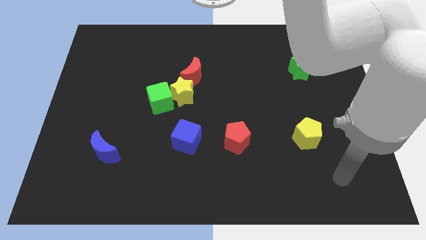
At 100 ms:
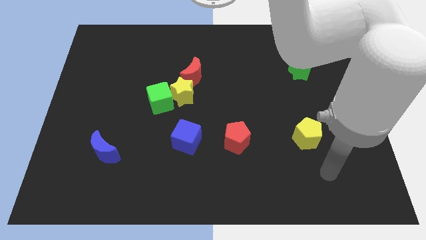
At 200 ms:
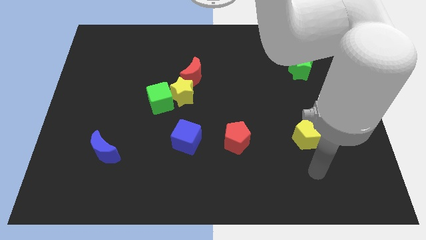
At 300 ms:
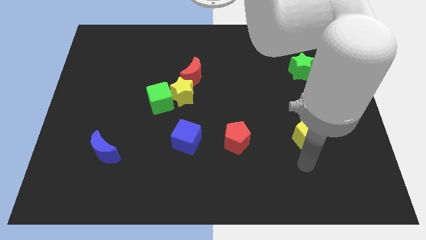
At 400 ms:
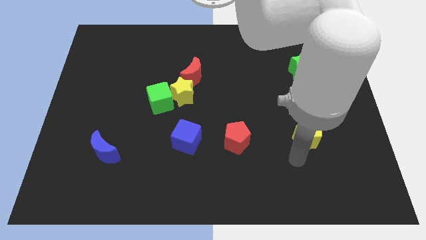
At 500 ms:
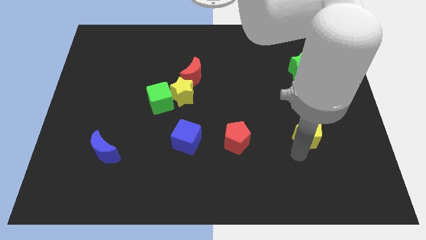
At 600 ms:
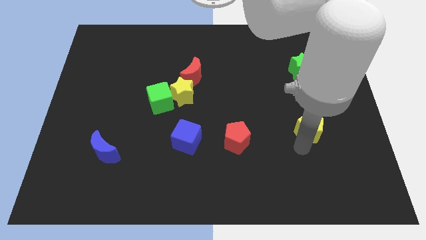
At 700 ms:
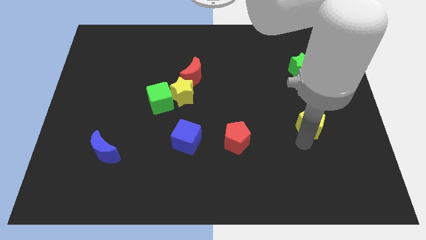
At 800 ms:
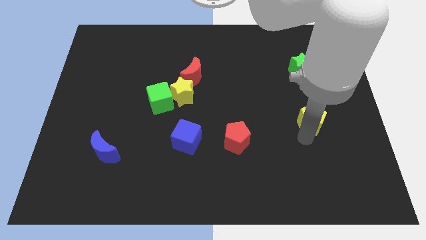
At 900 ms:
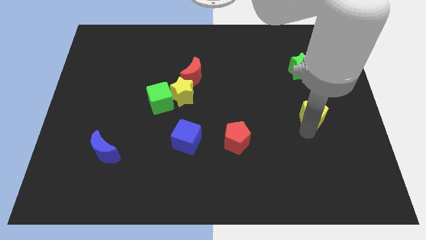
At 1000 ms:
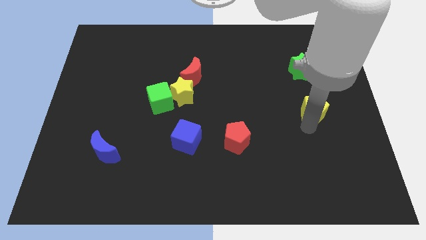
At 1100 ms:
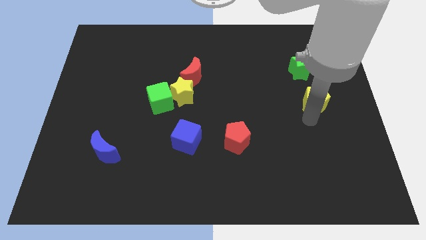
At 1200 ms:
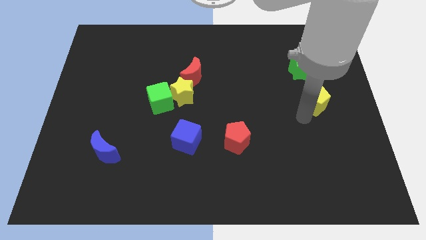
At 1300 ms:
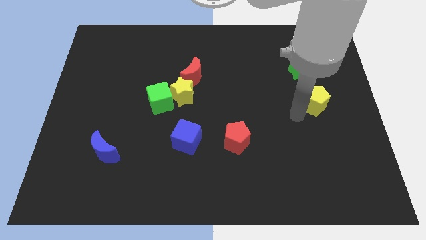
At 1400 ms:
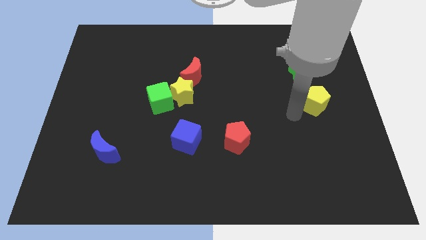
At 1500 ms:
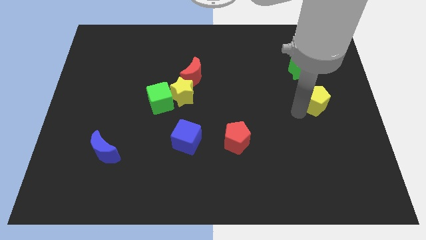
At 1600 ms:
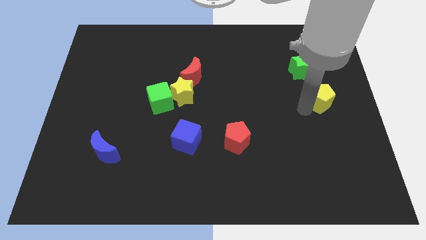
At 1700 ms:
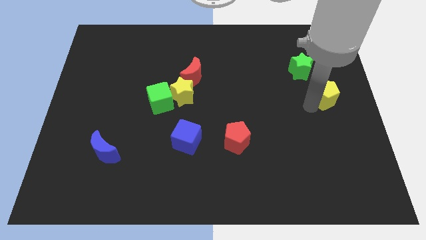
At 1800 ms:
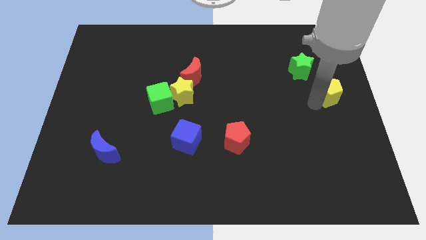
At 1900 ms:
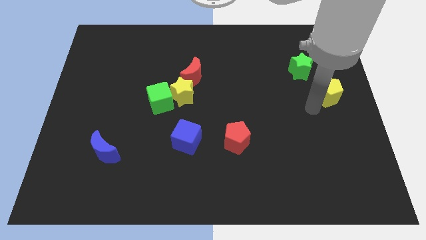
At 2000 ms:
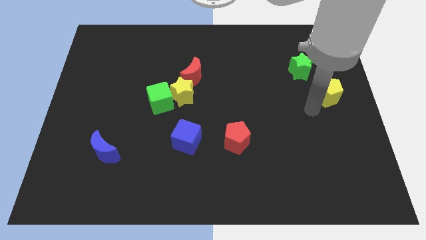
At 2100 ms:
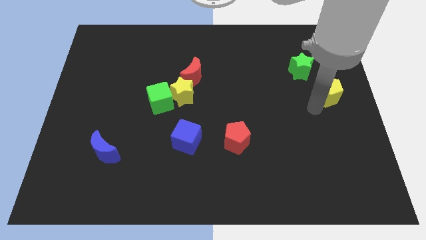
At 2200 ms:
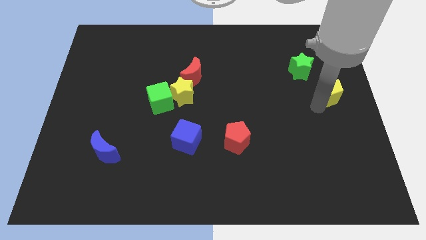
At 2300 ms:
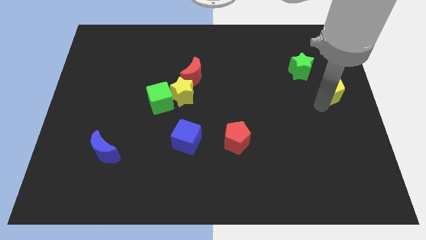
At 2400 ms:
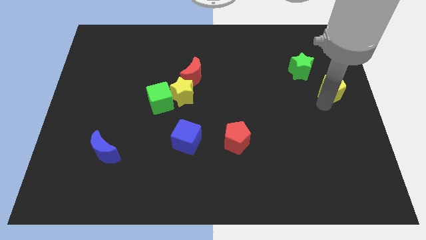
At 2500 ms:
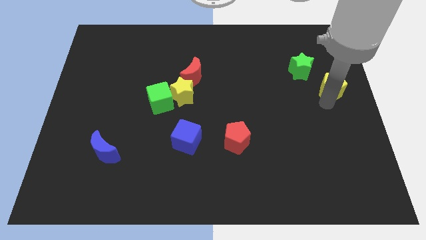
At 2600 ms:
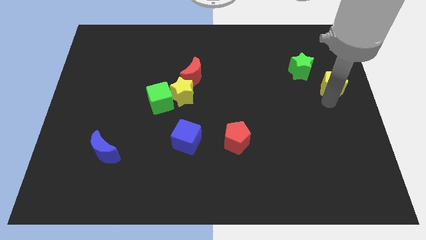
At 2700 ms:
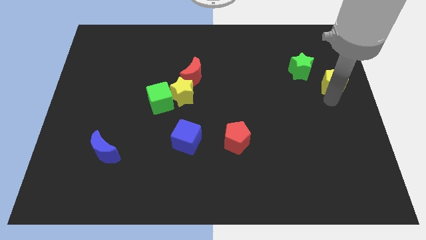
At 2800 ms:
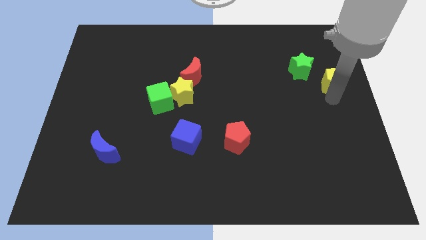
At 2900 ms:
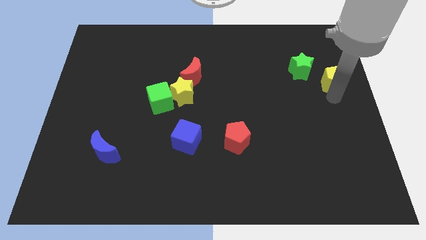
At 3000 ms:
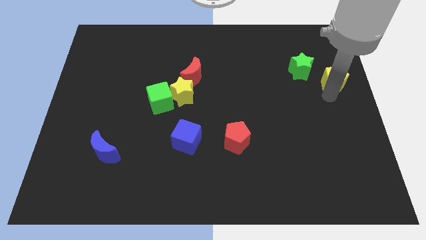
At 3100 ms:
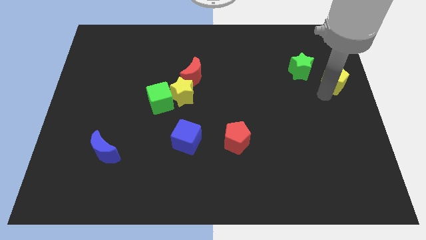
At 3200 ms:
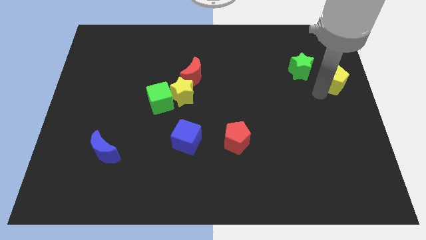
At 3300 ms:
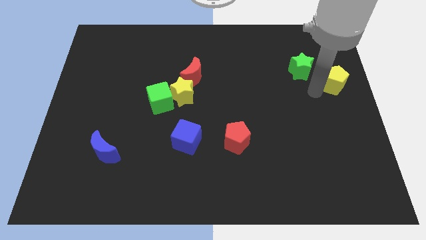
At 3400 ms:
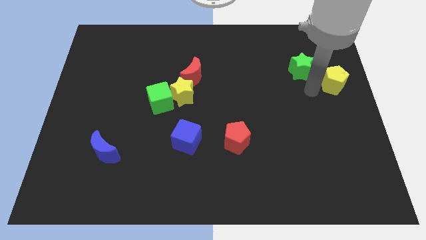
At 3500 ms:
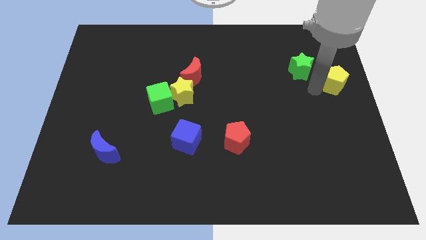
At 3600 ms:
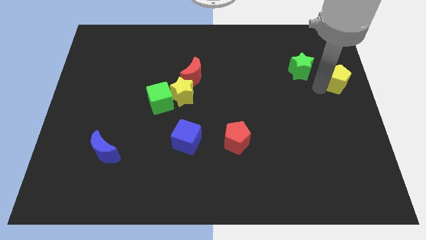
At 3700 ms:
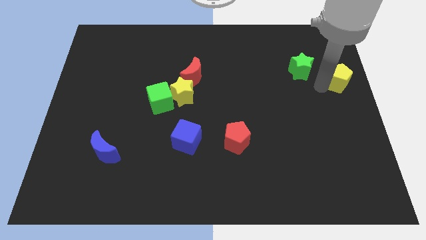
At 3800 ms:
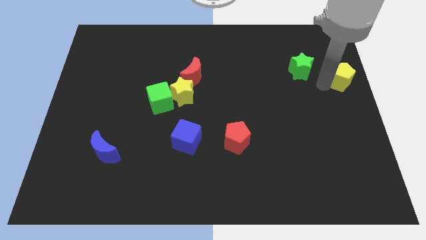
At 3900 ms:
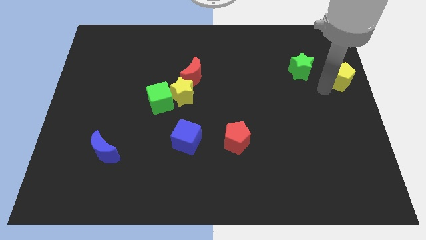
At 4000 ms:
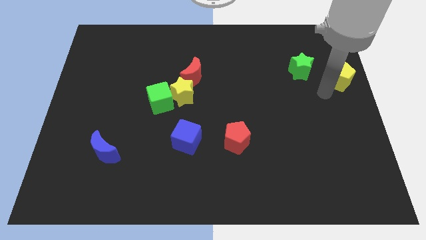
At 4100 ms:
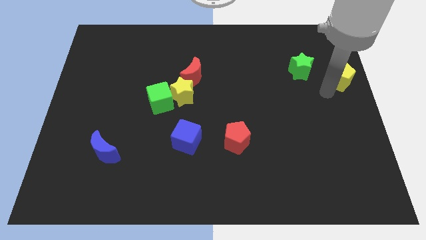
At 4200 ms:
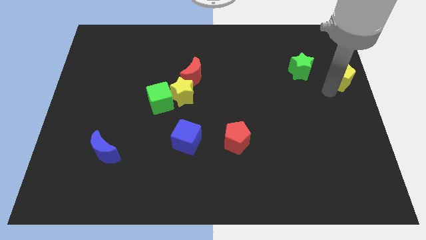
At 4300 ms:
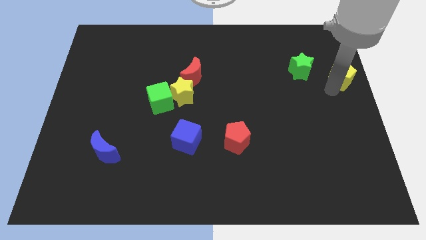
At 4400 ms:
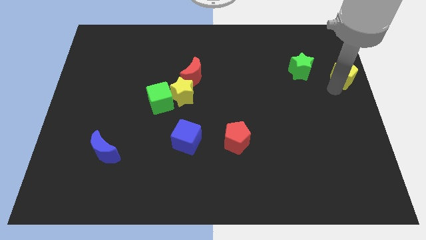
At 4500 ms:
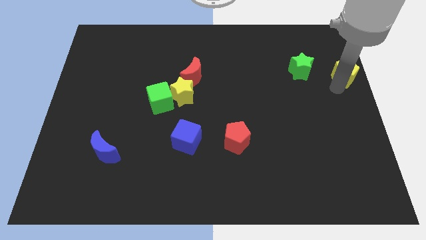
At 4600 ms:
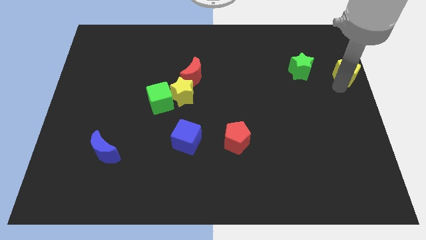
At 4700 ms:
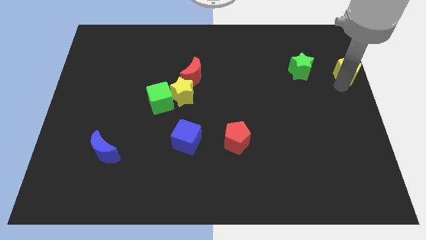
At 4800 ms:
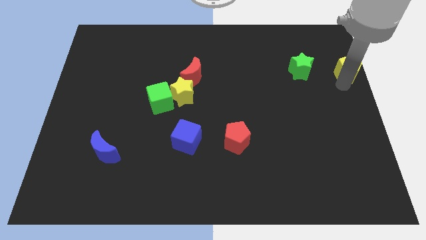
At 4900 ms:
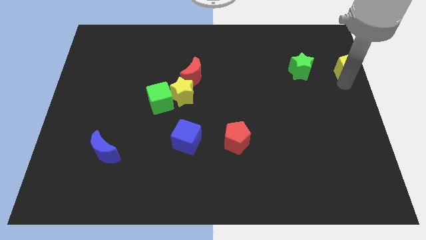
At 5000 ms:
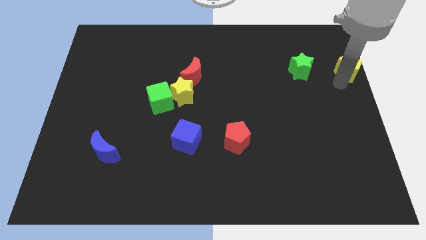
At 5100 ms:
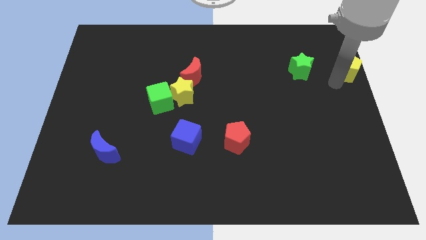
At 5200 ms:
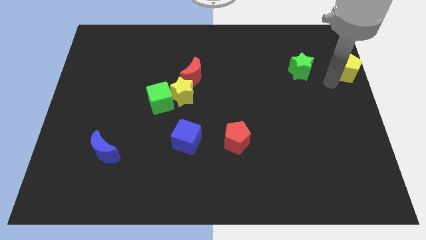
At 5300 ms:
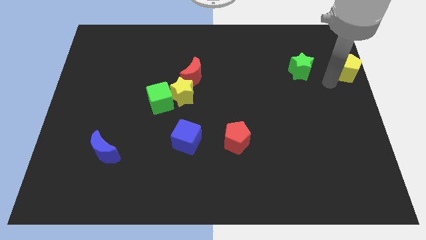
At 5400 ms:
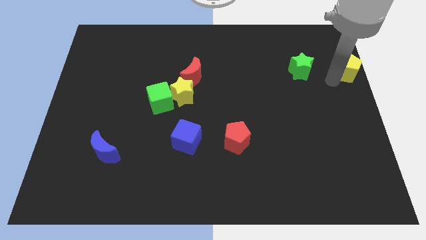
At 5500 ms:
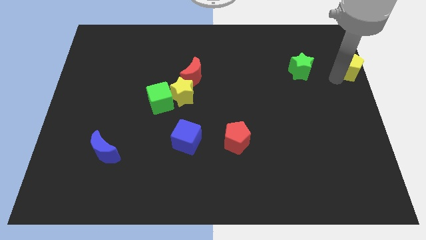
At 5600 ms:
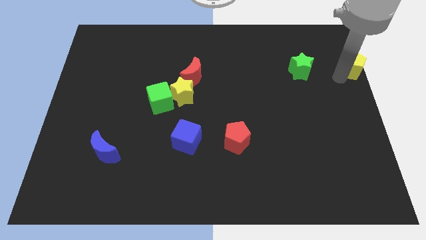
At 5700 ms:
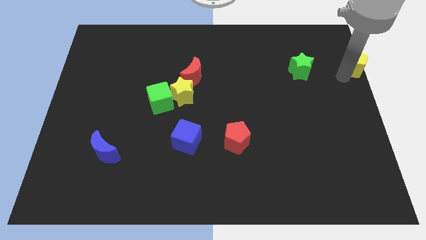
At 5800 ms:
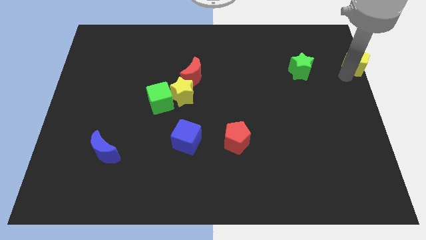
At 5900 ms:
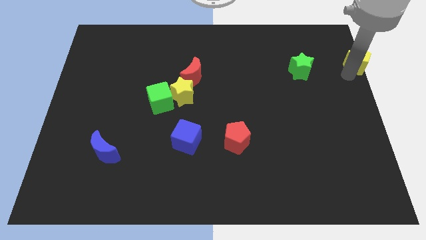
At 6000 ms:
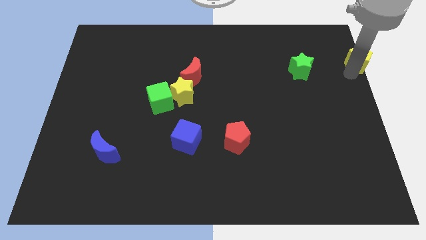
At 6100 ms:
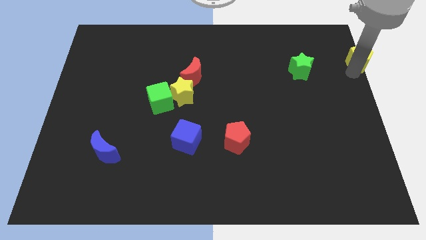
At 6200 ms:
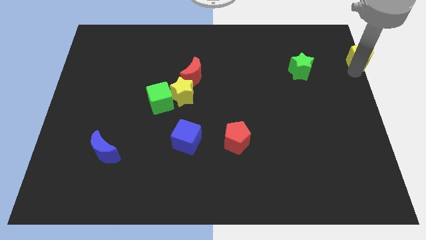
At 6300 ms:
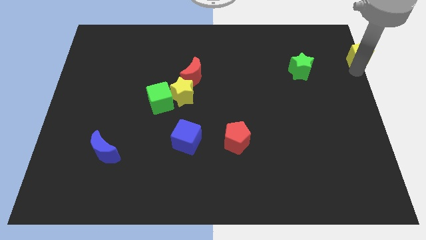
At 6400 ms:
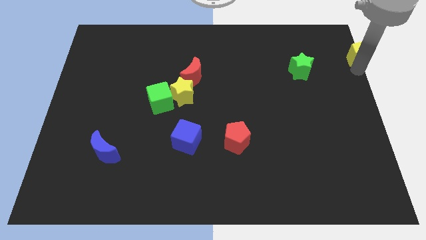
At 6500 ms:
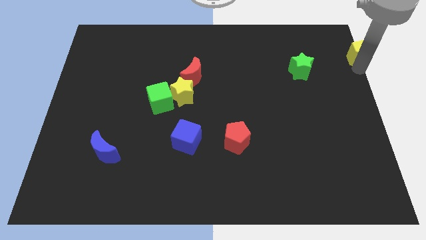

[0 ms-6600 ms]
push the yellow pentagon to the top right corner

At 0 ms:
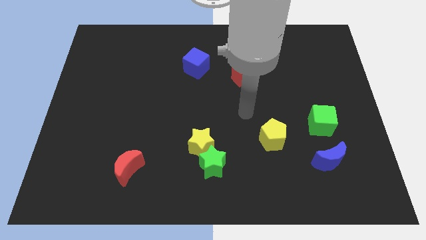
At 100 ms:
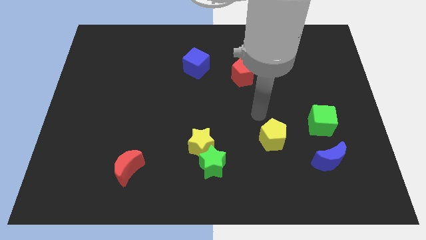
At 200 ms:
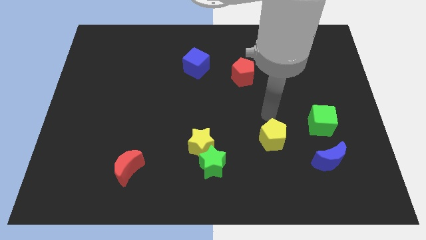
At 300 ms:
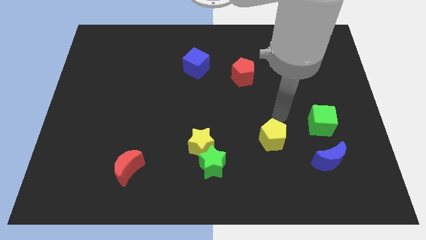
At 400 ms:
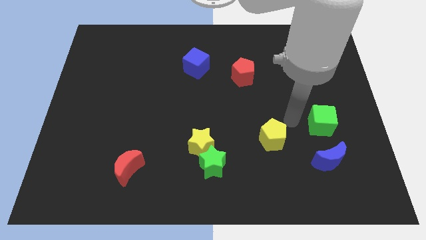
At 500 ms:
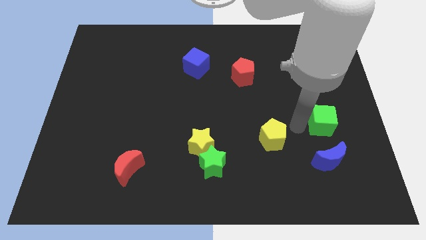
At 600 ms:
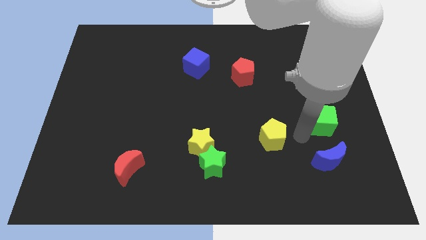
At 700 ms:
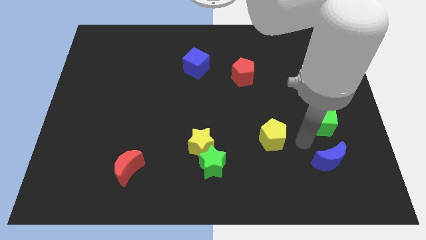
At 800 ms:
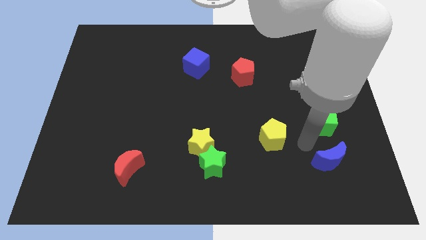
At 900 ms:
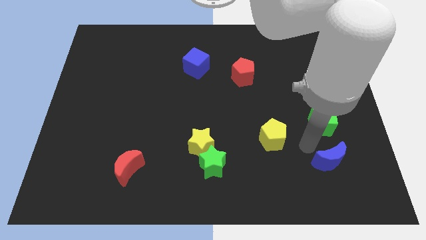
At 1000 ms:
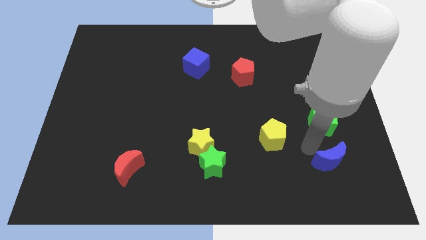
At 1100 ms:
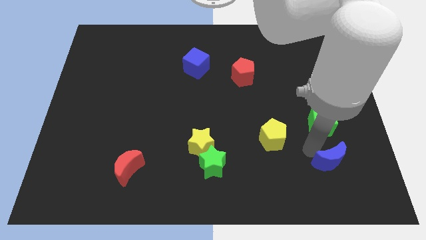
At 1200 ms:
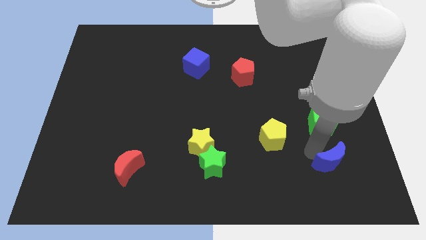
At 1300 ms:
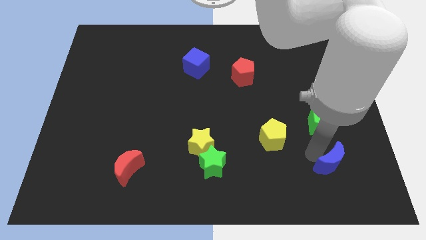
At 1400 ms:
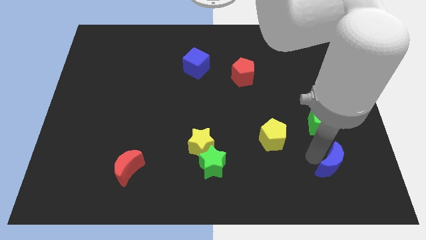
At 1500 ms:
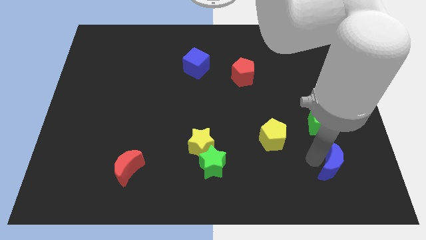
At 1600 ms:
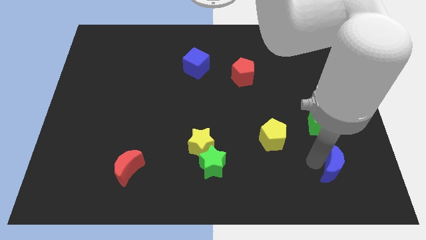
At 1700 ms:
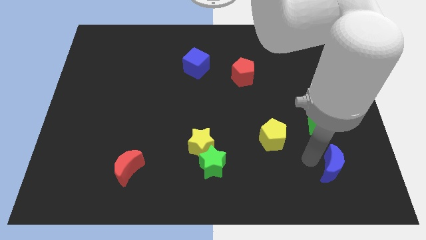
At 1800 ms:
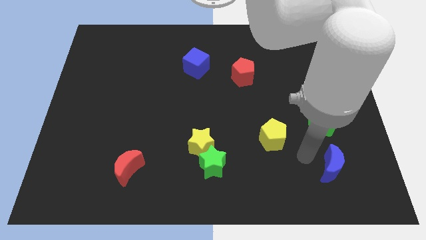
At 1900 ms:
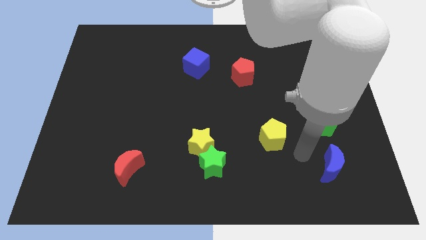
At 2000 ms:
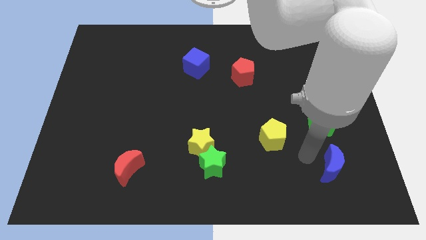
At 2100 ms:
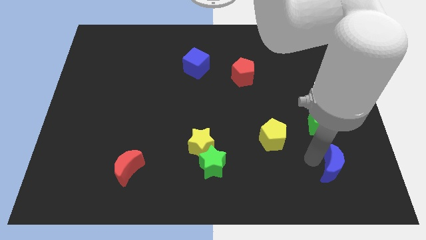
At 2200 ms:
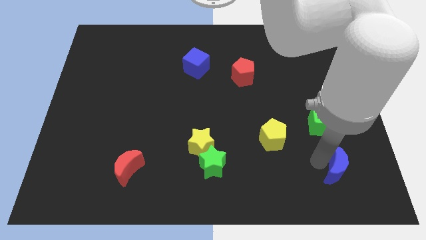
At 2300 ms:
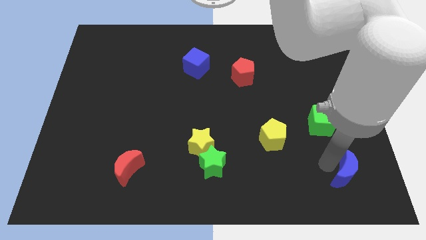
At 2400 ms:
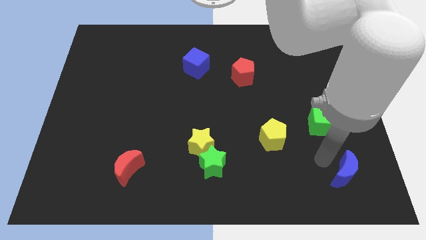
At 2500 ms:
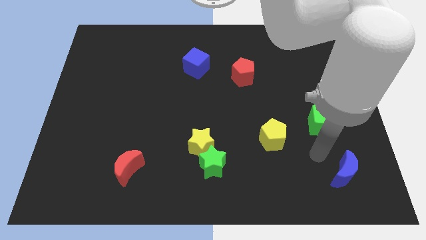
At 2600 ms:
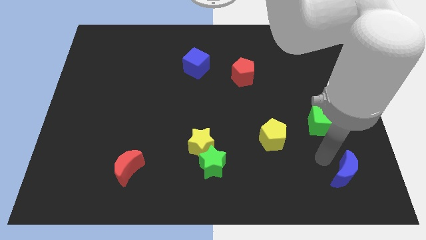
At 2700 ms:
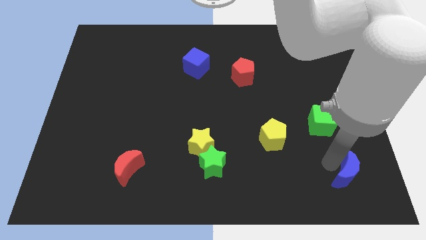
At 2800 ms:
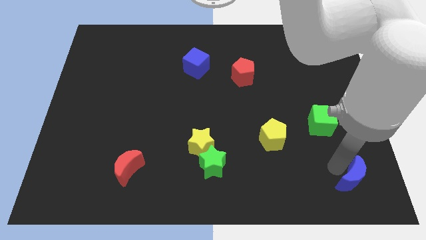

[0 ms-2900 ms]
push the blue moon to the bottom right of the board
